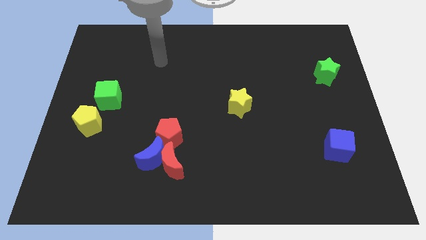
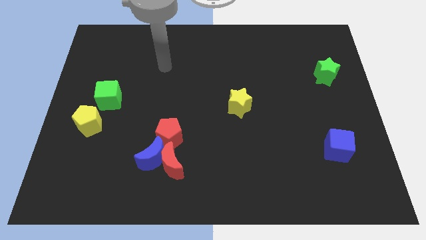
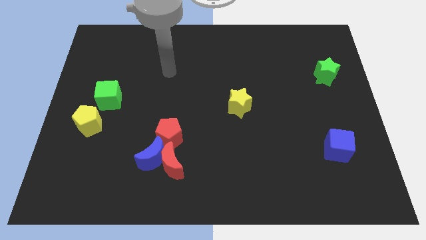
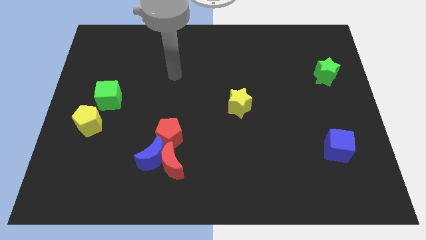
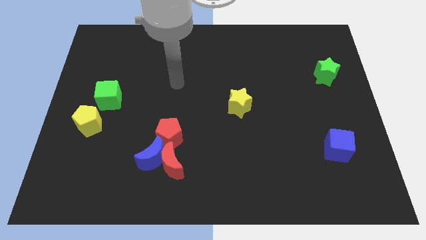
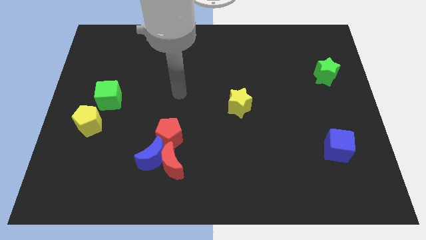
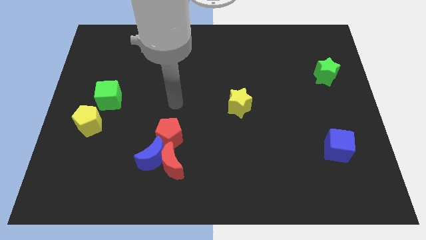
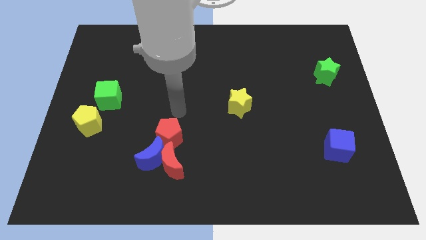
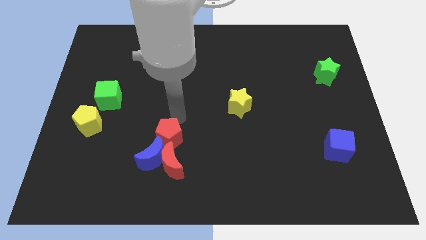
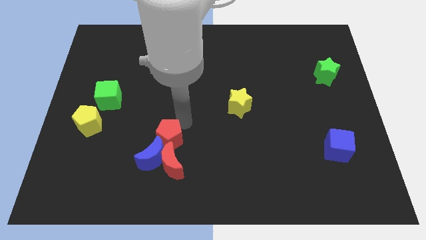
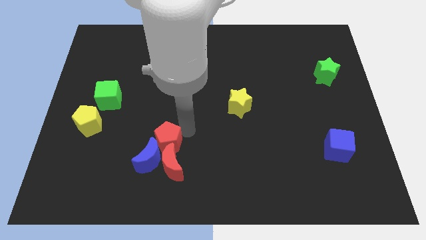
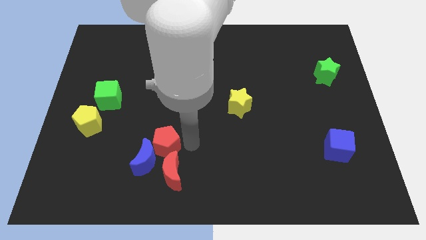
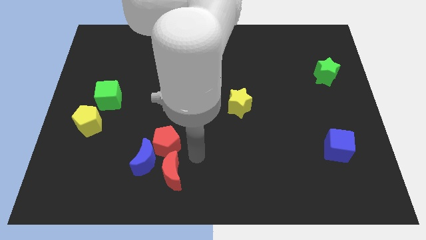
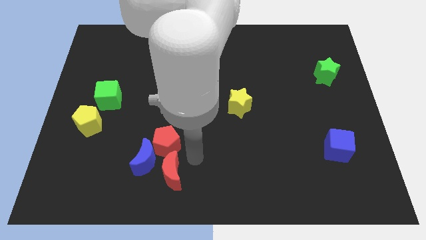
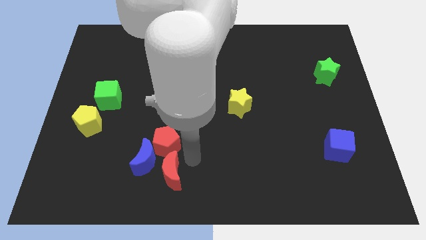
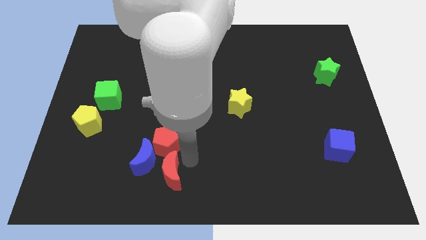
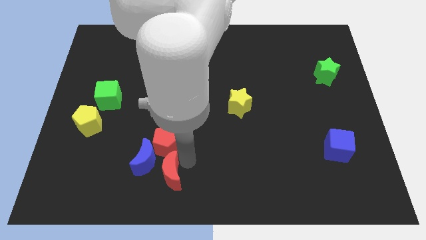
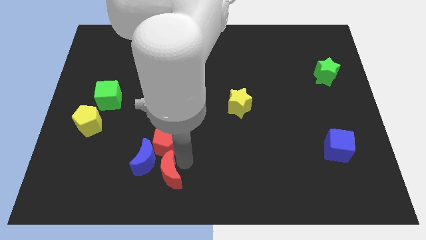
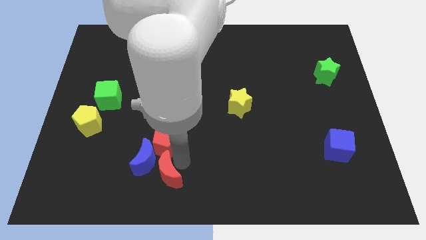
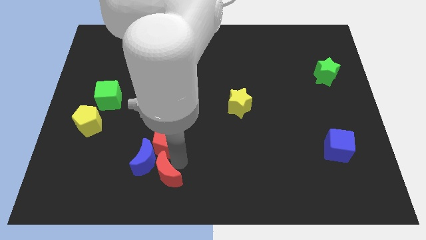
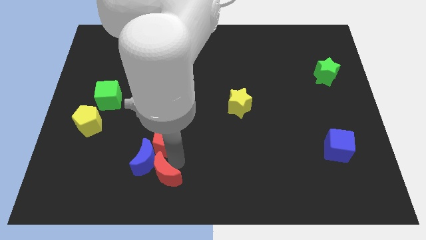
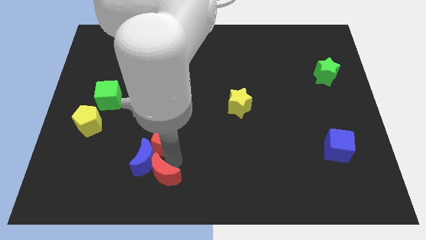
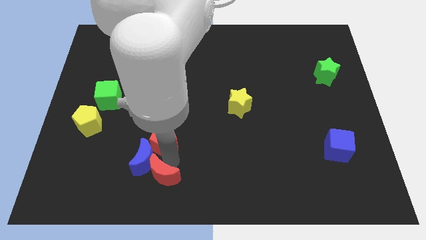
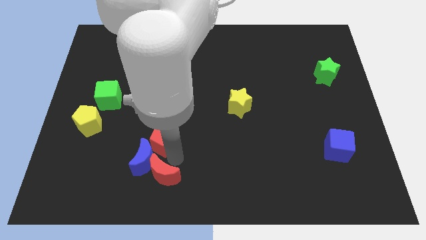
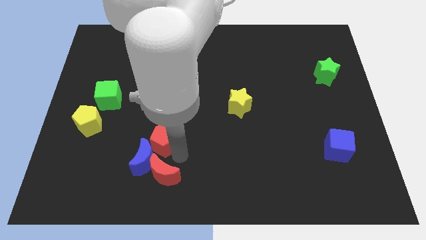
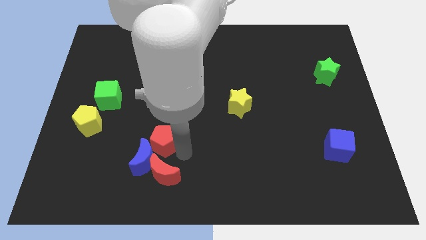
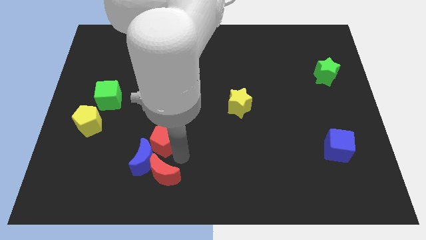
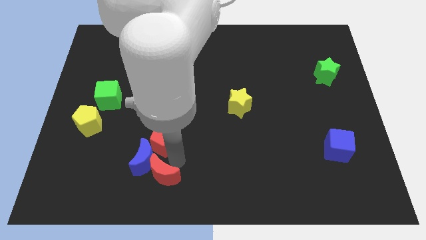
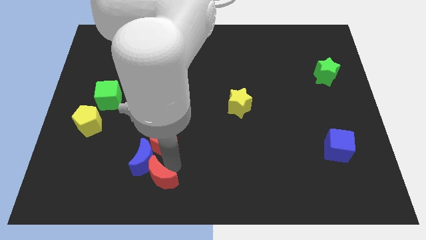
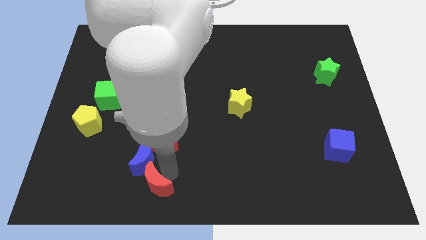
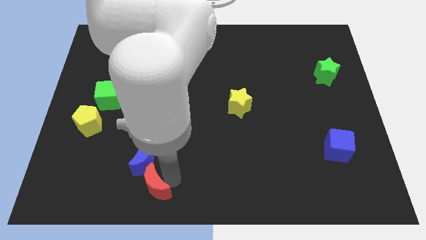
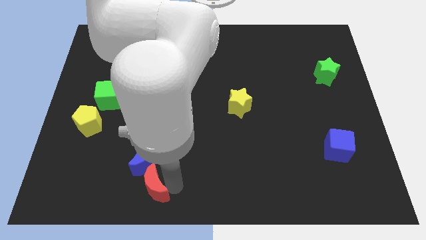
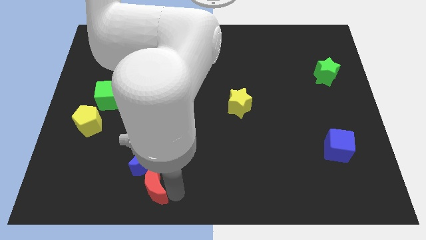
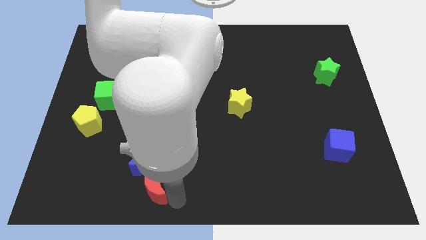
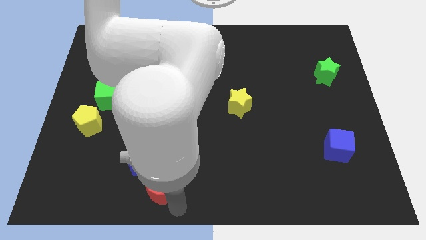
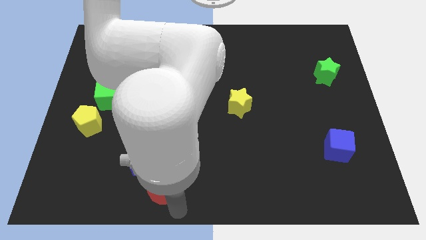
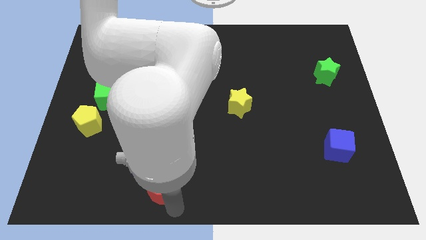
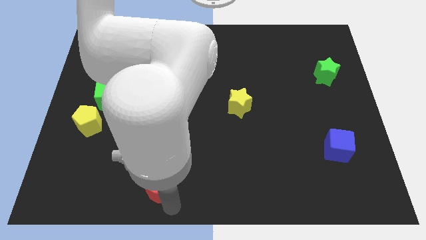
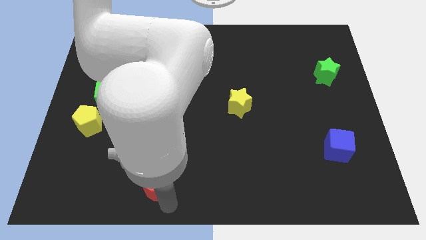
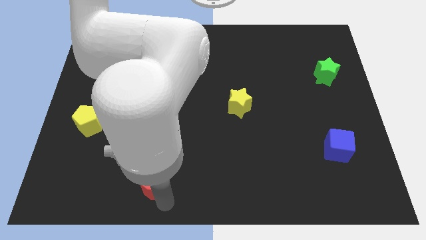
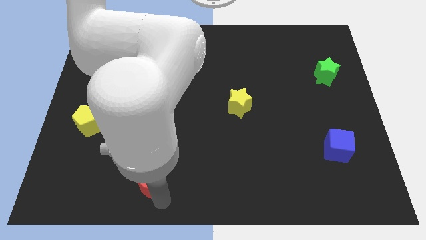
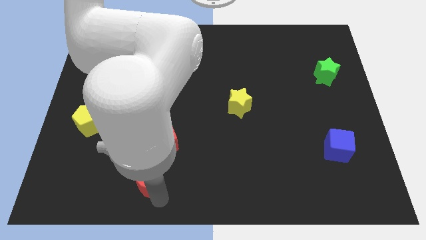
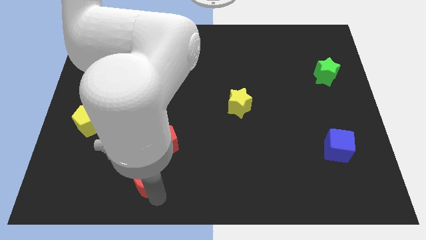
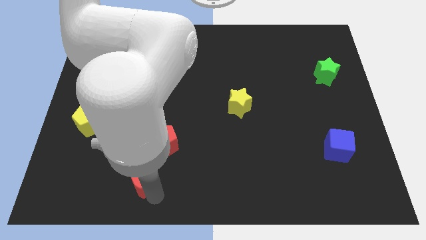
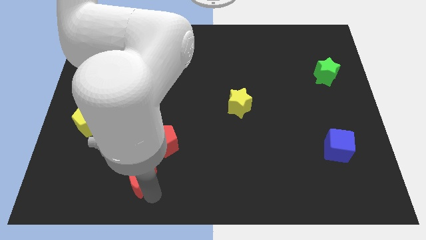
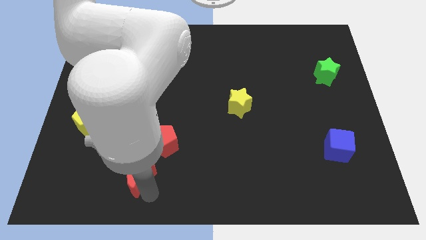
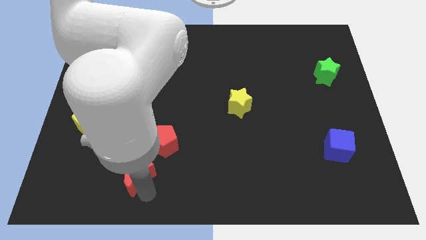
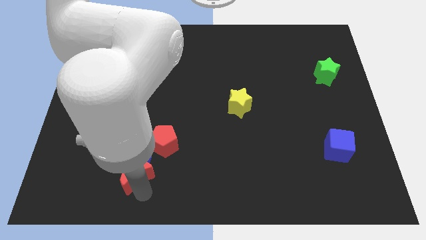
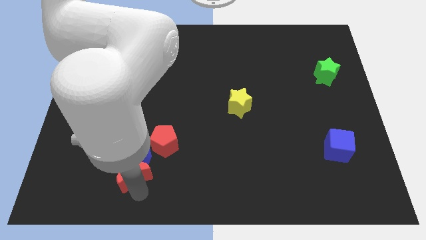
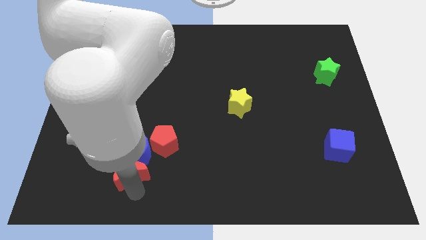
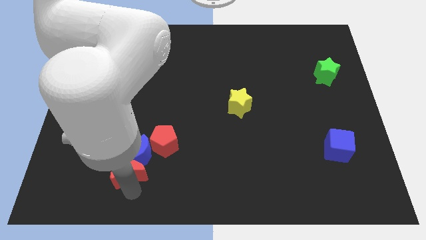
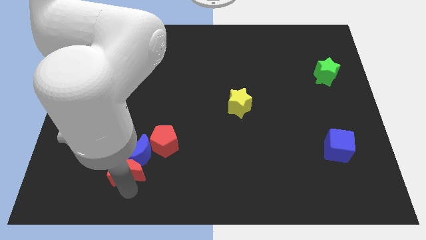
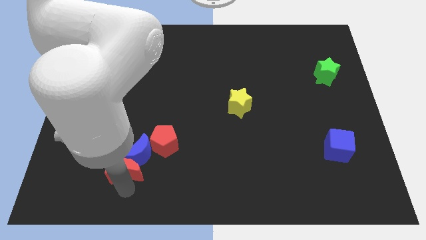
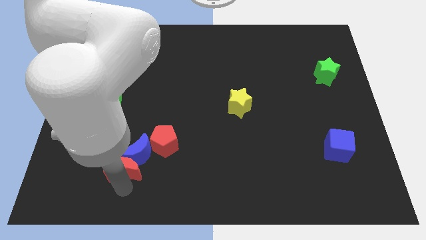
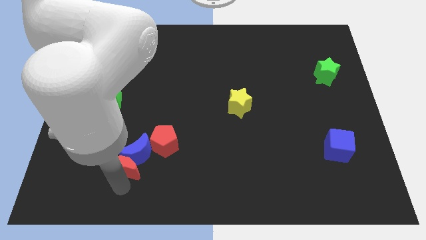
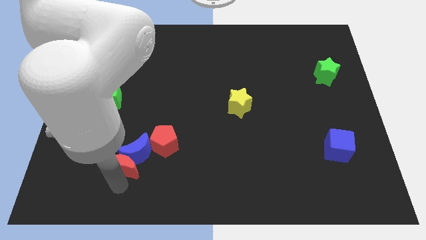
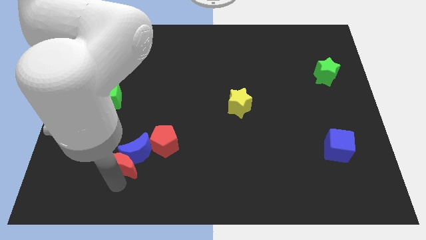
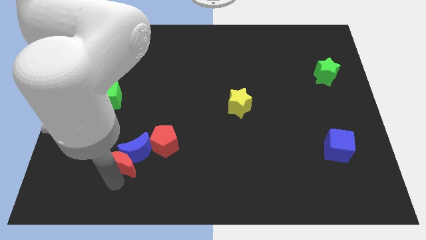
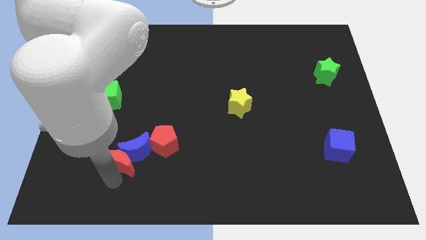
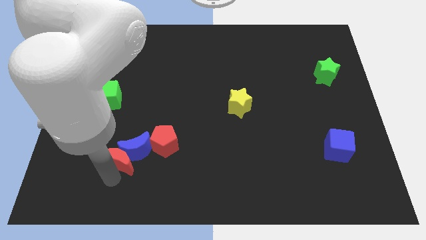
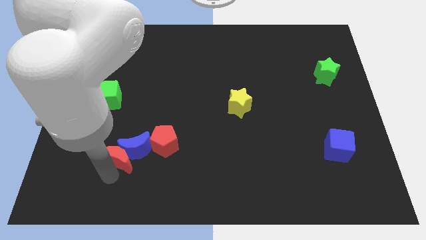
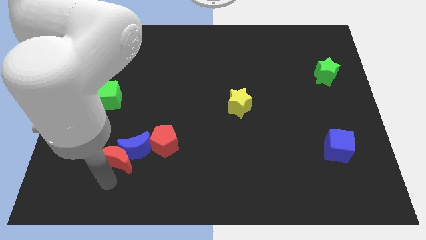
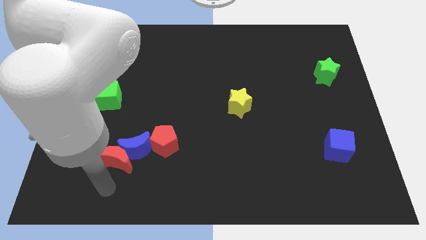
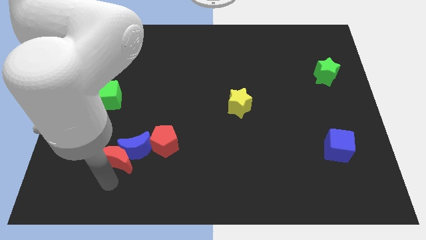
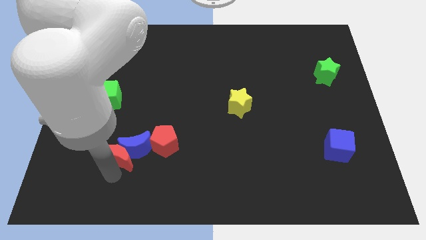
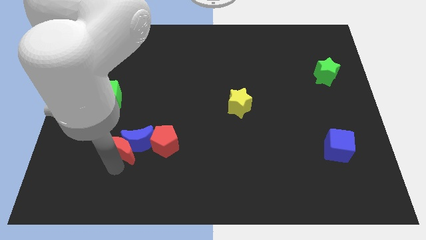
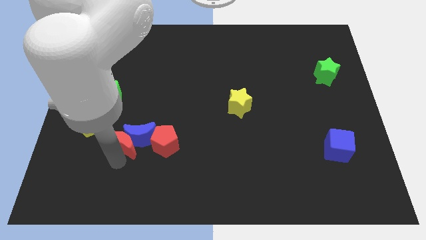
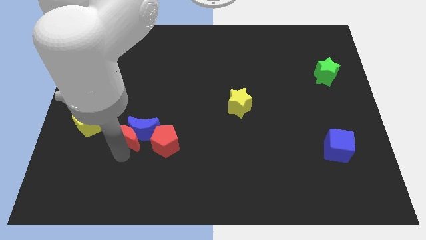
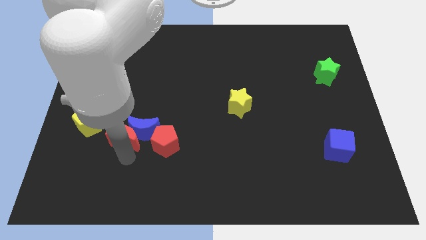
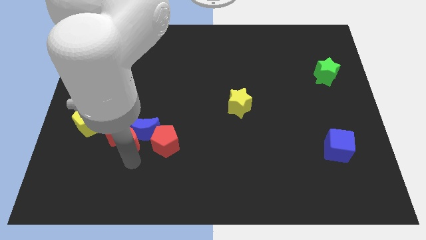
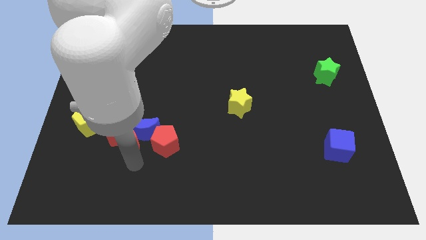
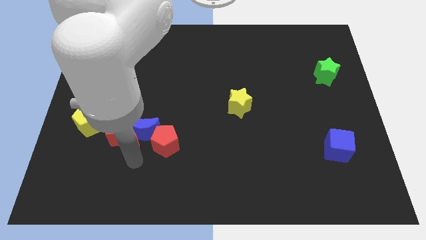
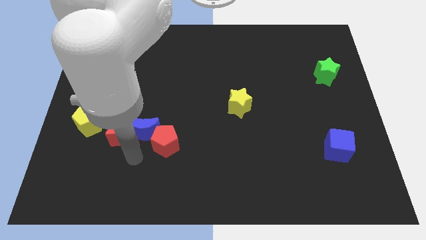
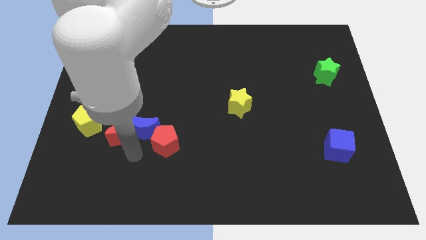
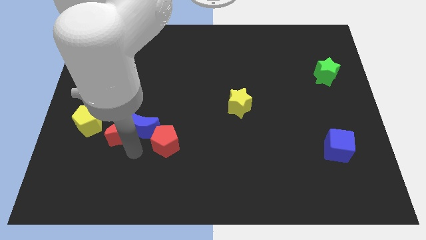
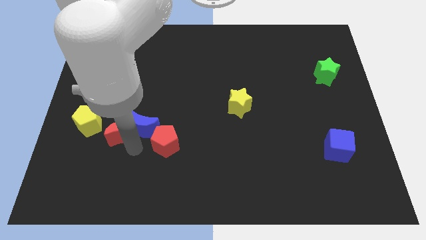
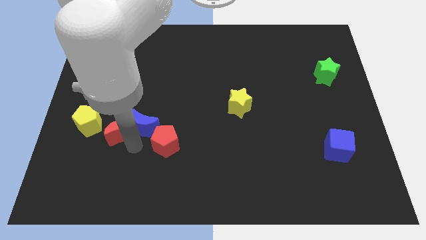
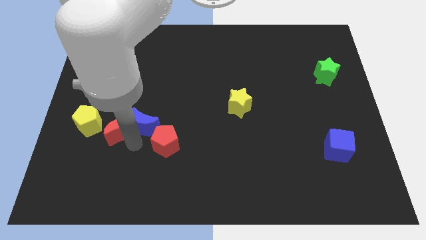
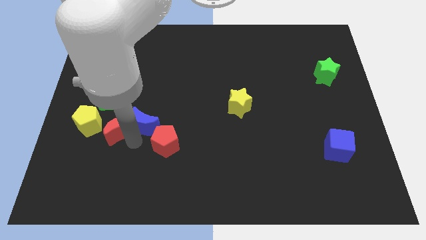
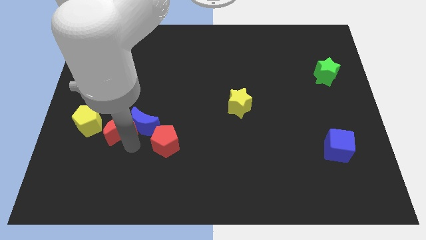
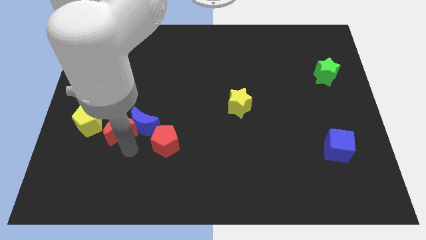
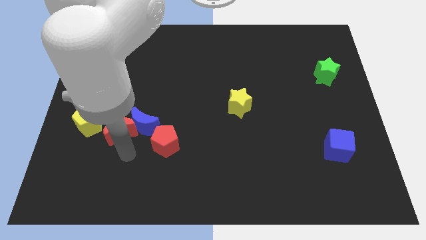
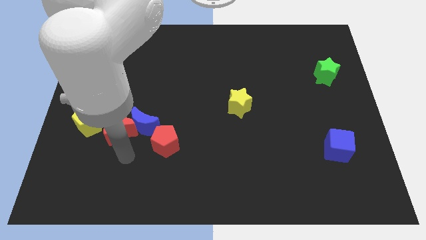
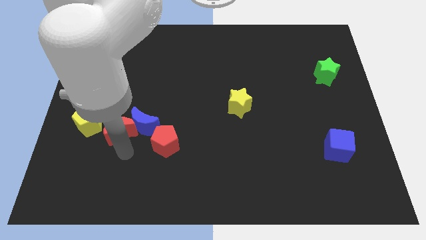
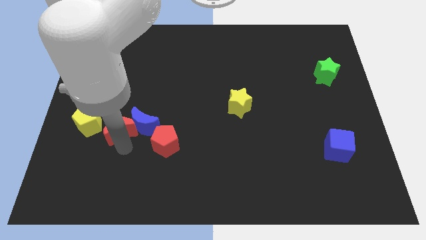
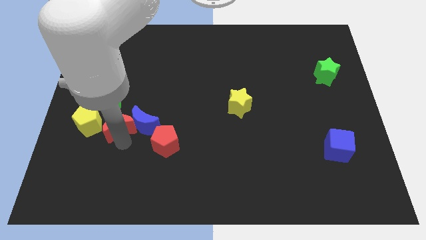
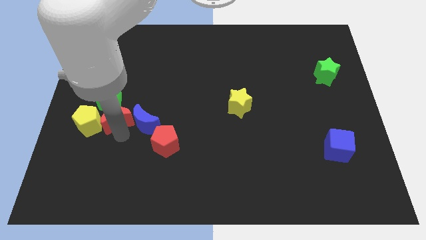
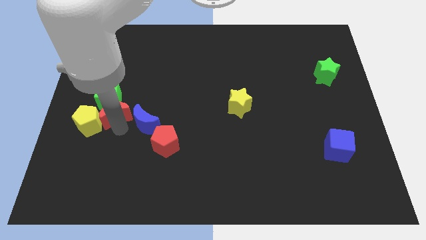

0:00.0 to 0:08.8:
move the red moon to the green cube
